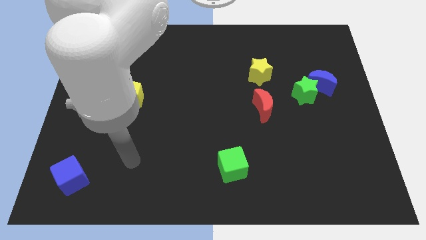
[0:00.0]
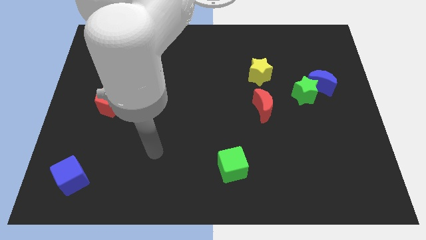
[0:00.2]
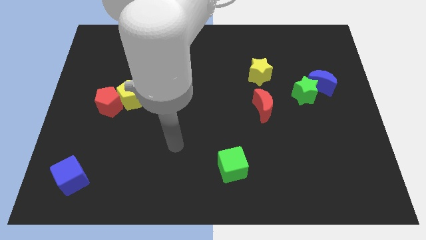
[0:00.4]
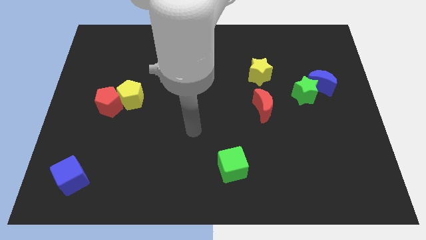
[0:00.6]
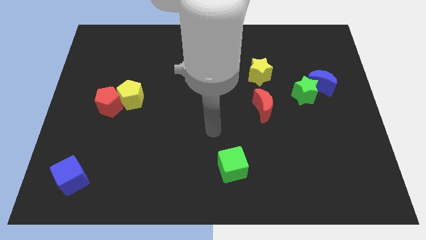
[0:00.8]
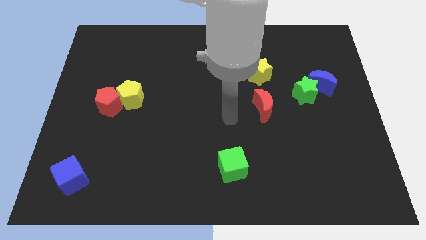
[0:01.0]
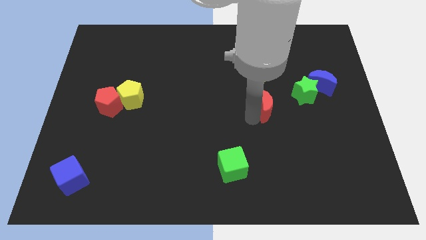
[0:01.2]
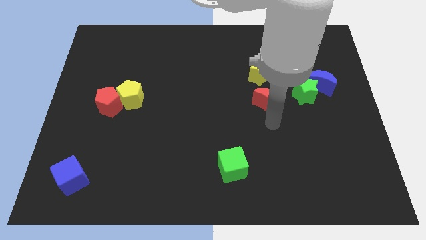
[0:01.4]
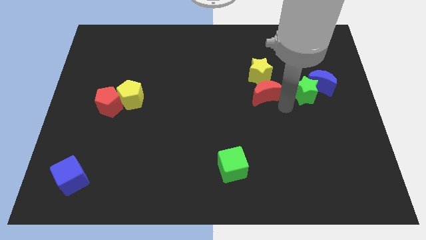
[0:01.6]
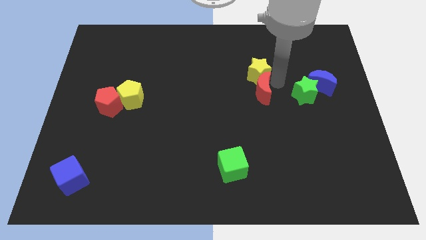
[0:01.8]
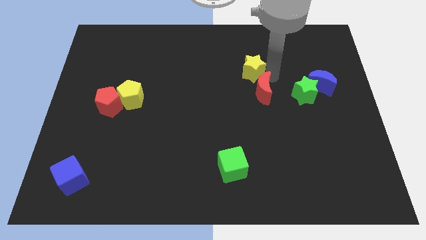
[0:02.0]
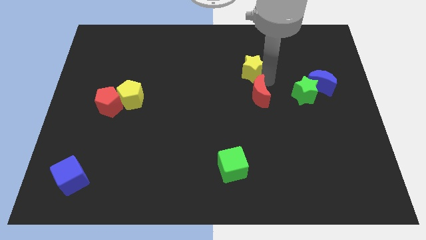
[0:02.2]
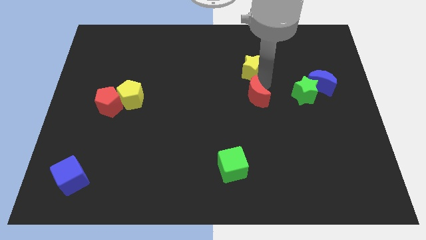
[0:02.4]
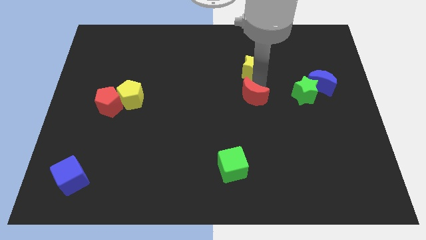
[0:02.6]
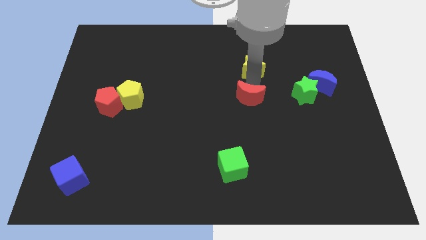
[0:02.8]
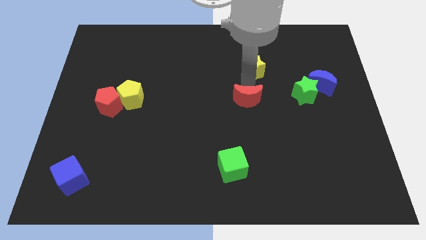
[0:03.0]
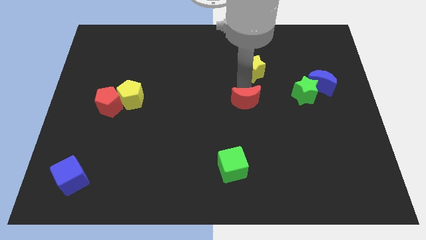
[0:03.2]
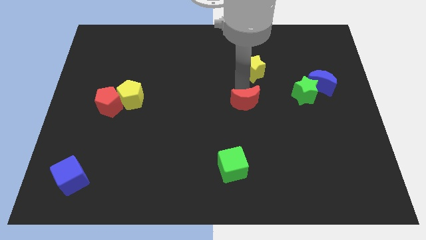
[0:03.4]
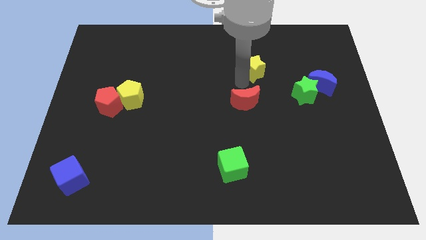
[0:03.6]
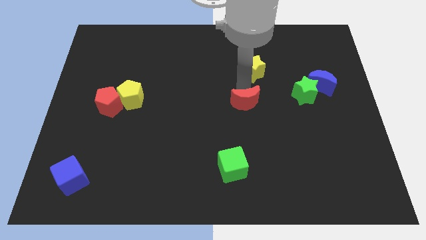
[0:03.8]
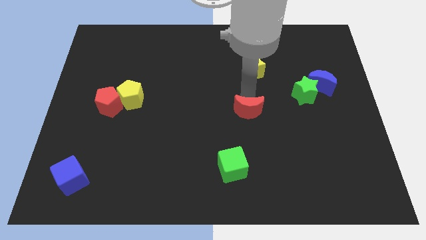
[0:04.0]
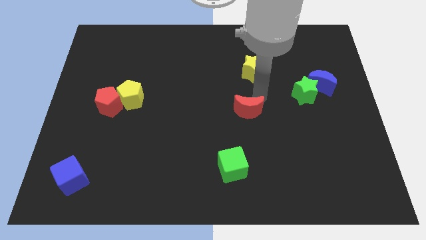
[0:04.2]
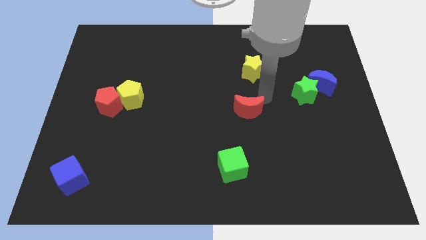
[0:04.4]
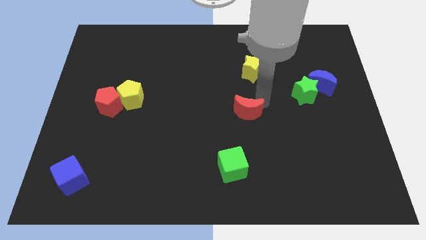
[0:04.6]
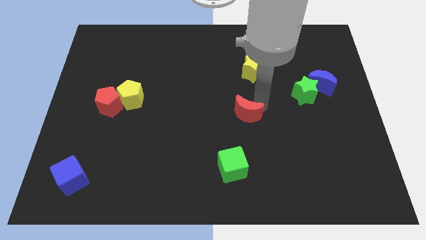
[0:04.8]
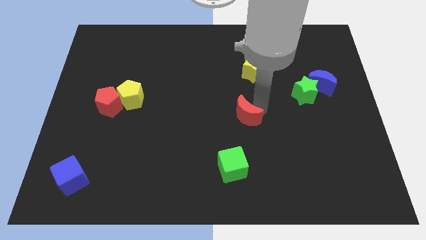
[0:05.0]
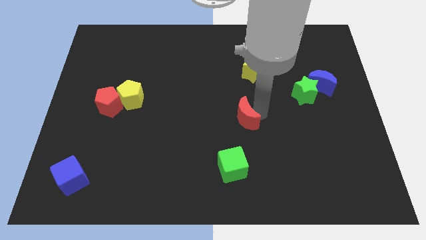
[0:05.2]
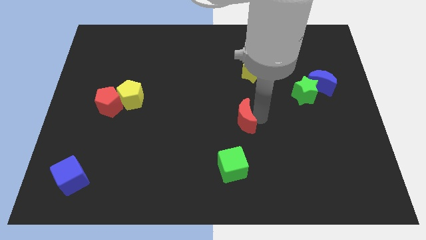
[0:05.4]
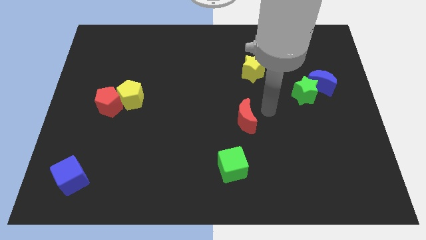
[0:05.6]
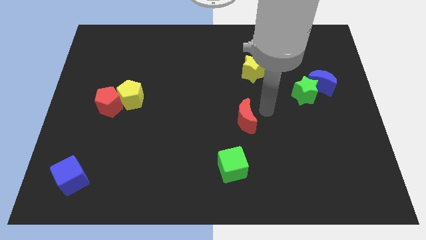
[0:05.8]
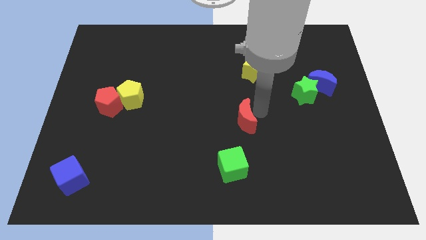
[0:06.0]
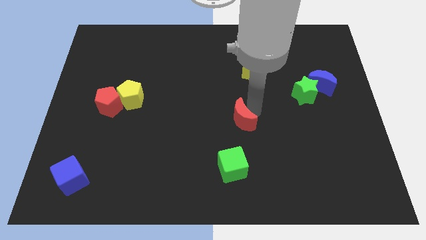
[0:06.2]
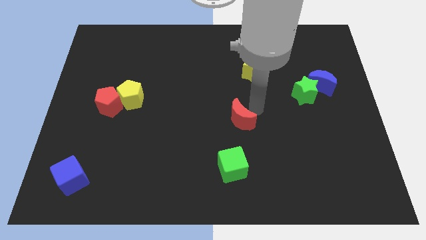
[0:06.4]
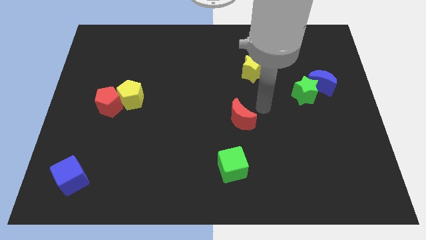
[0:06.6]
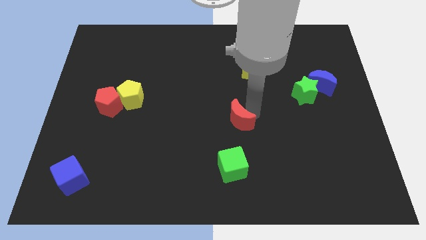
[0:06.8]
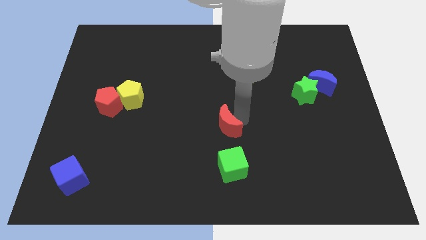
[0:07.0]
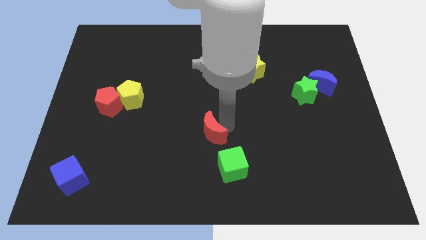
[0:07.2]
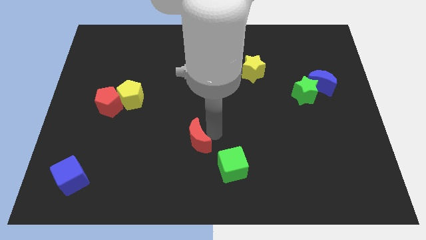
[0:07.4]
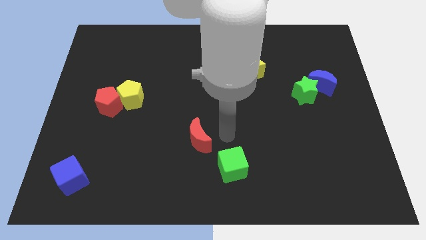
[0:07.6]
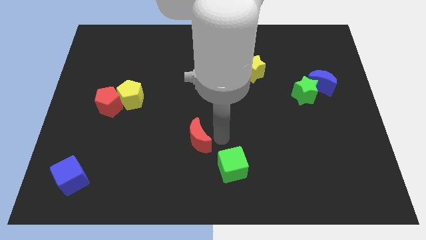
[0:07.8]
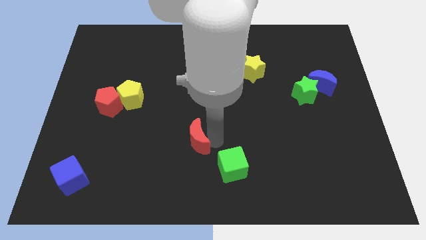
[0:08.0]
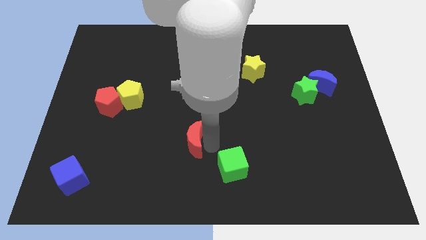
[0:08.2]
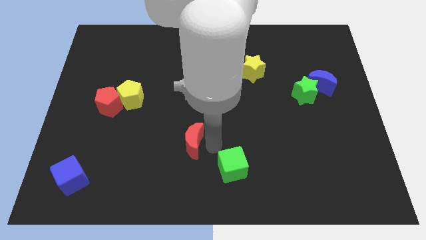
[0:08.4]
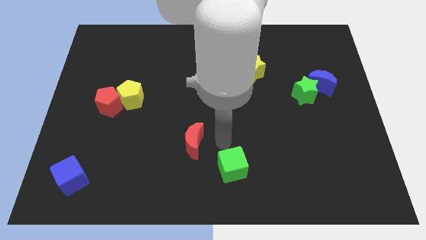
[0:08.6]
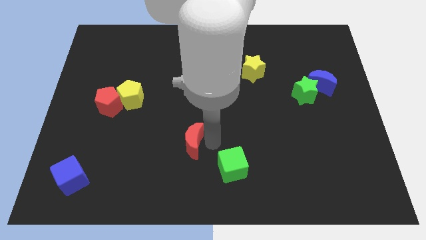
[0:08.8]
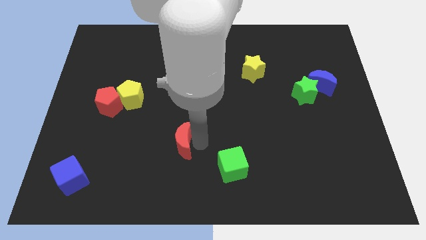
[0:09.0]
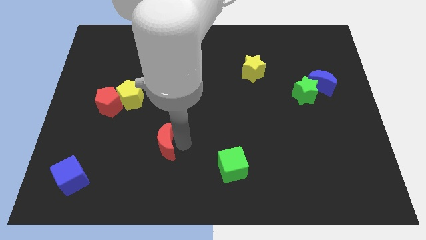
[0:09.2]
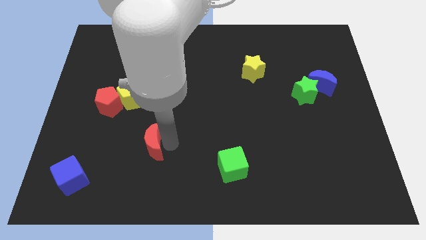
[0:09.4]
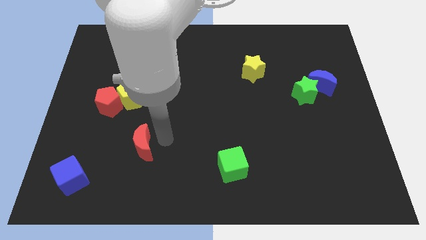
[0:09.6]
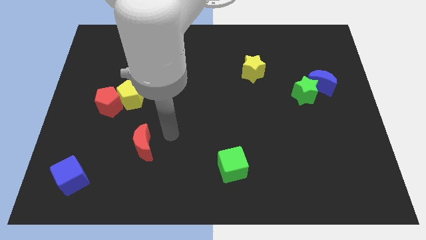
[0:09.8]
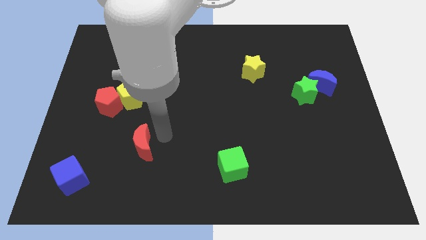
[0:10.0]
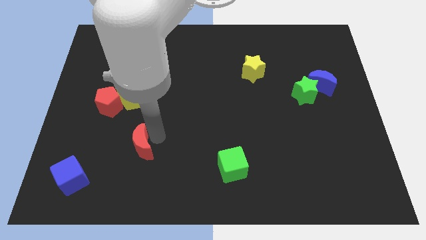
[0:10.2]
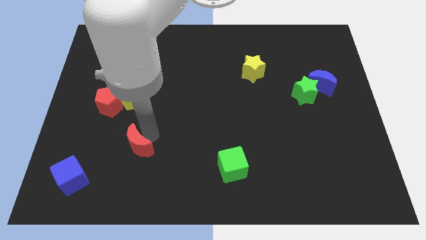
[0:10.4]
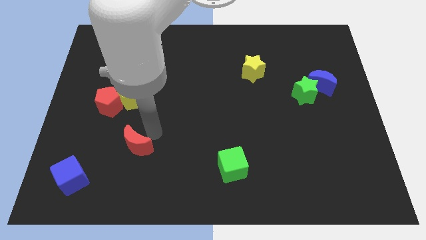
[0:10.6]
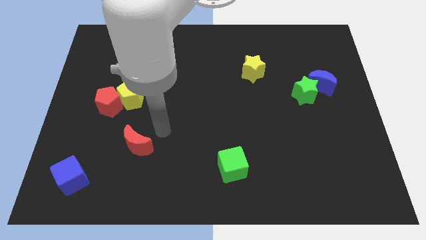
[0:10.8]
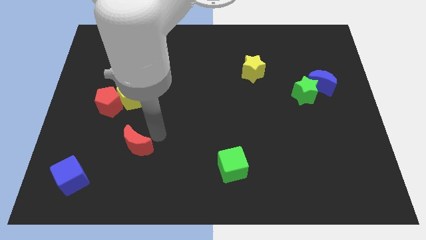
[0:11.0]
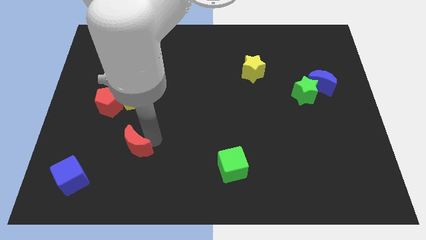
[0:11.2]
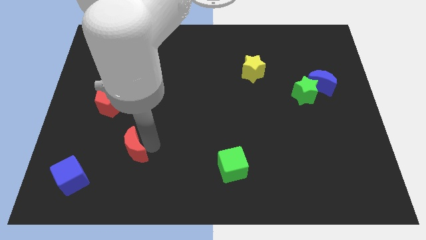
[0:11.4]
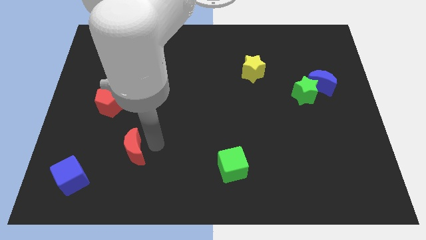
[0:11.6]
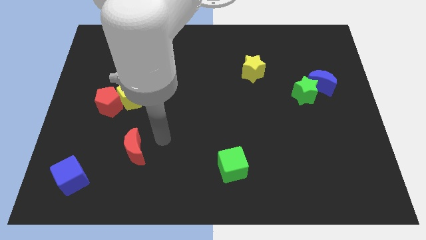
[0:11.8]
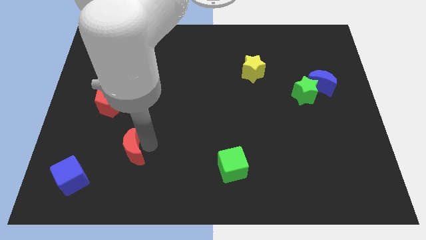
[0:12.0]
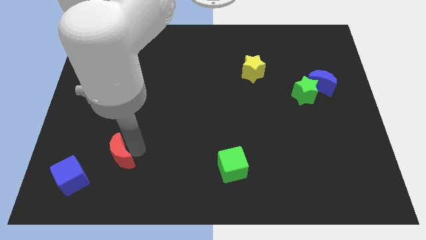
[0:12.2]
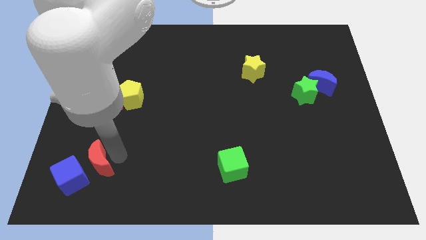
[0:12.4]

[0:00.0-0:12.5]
move the red moon to the blue cube

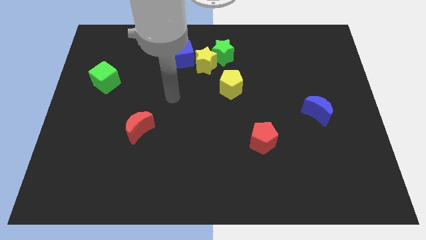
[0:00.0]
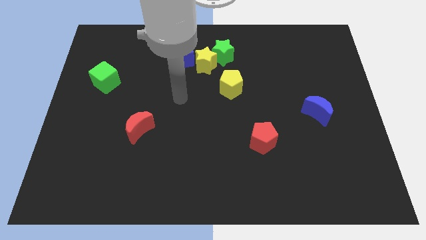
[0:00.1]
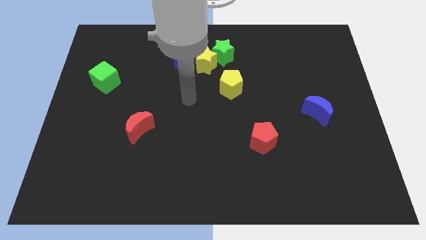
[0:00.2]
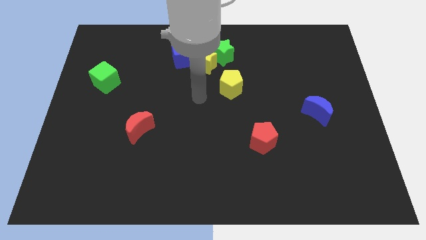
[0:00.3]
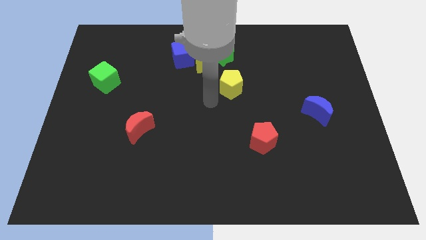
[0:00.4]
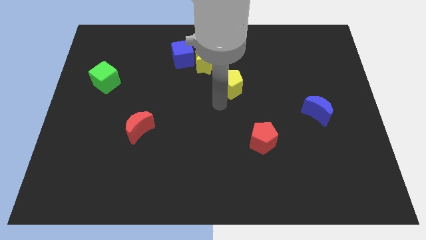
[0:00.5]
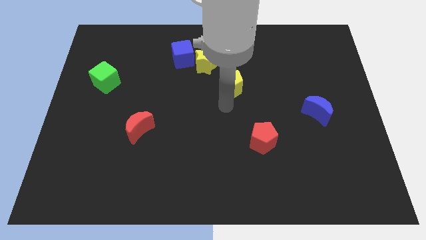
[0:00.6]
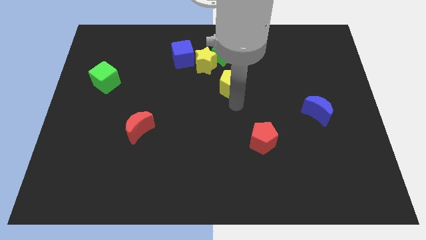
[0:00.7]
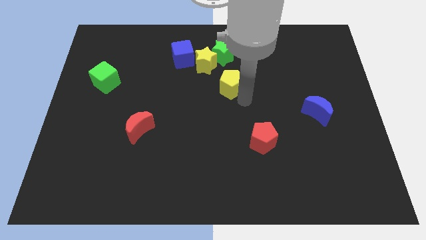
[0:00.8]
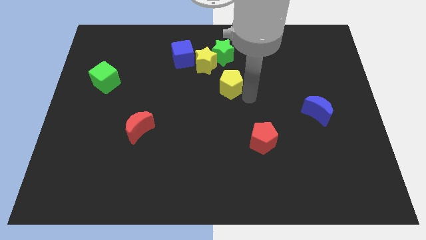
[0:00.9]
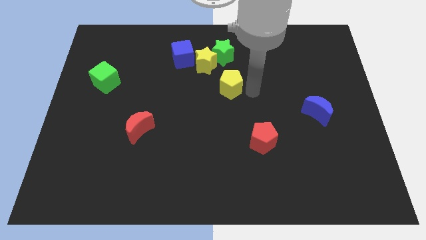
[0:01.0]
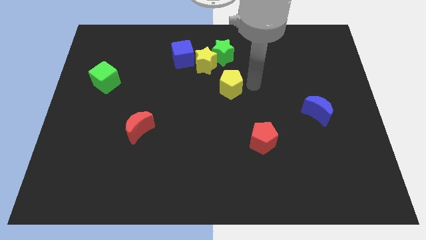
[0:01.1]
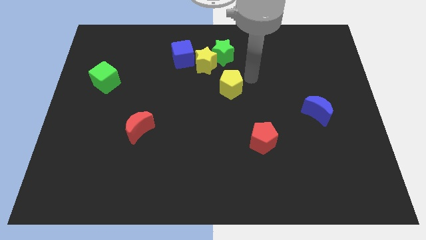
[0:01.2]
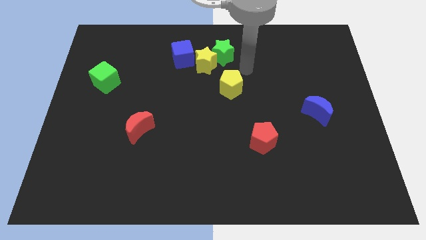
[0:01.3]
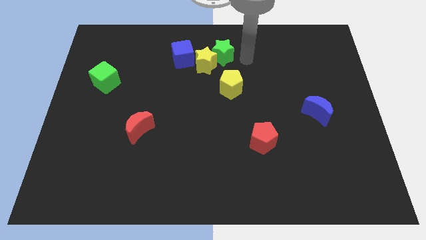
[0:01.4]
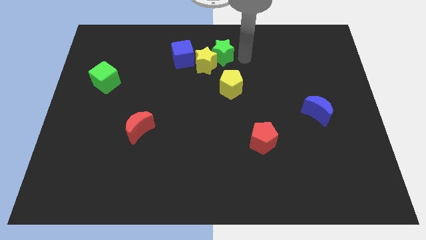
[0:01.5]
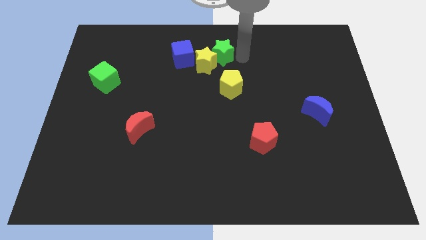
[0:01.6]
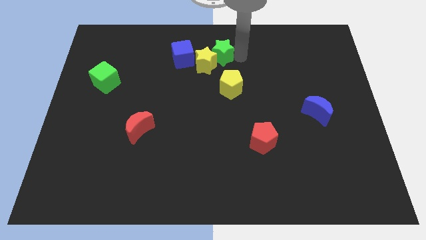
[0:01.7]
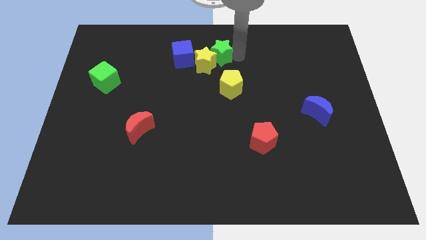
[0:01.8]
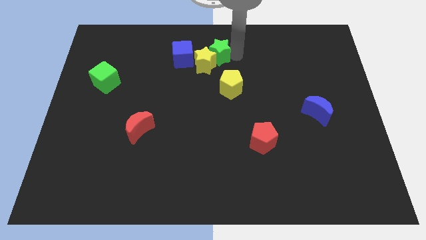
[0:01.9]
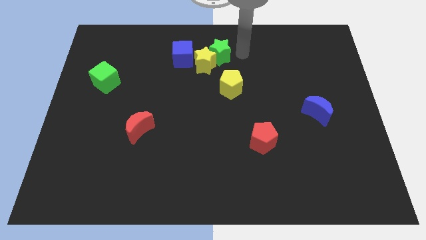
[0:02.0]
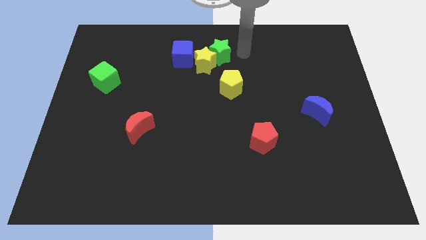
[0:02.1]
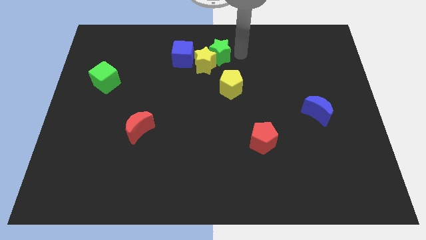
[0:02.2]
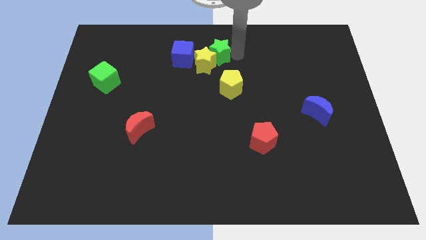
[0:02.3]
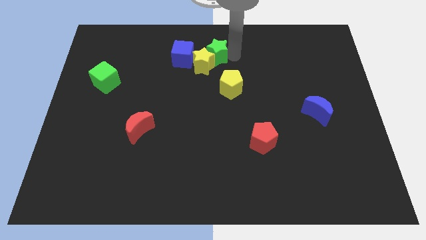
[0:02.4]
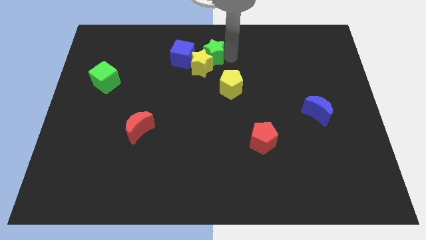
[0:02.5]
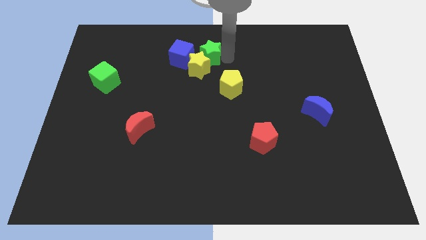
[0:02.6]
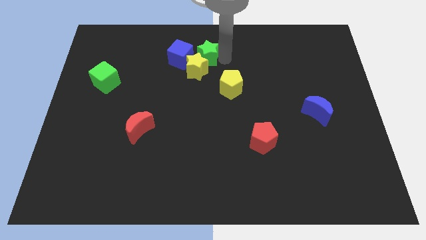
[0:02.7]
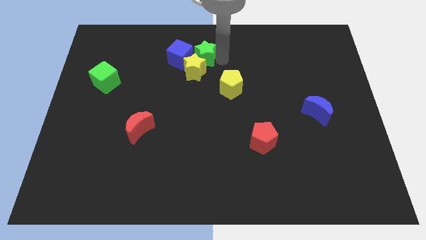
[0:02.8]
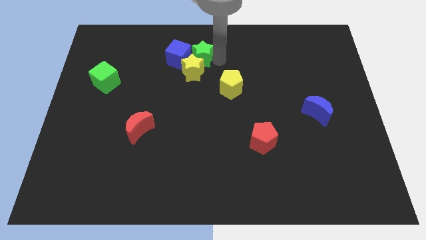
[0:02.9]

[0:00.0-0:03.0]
move the green star next to the blue cube
